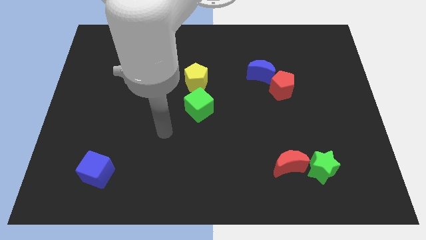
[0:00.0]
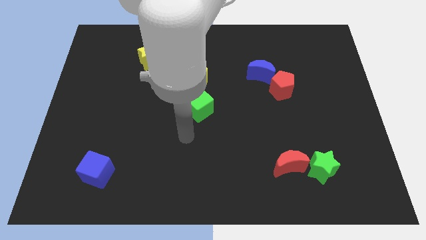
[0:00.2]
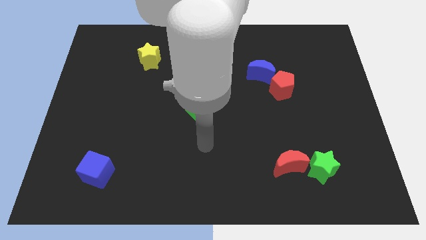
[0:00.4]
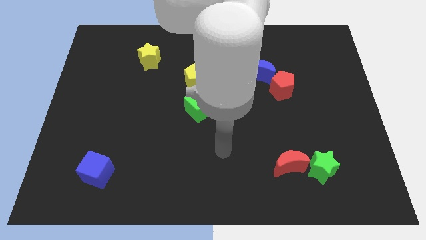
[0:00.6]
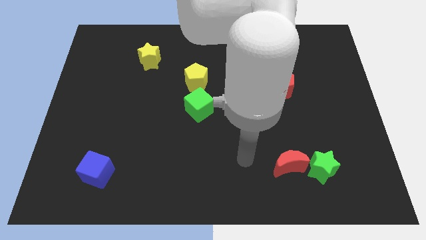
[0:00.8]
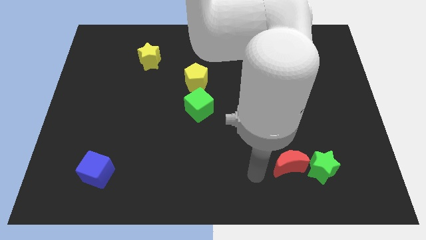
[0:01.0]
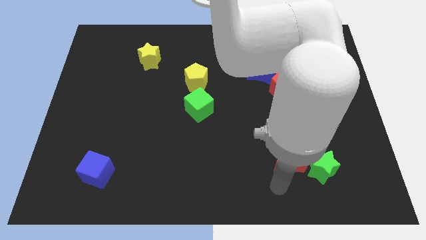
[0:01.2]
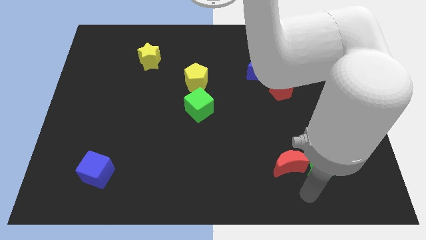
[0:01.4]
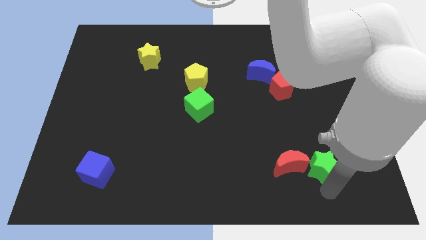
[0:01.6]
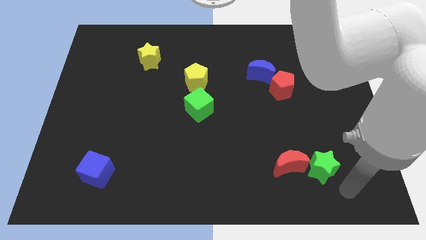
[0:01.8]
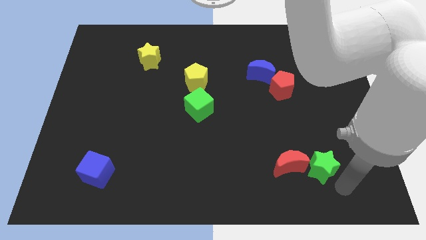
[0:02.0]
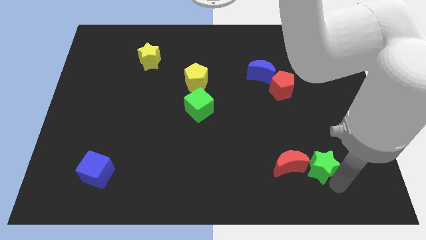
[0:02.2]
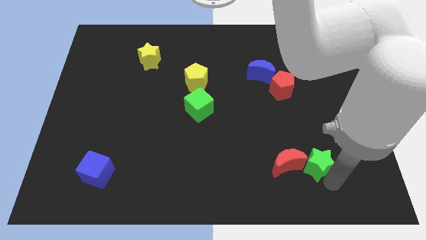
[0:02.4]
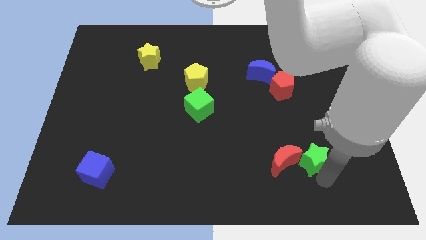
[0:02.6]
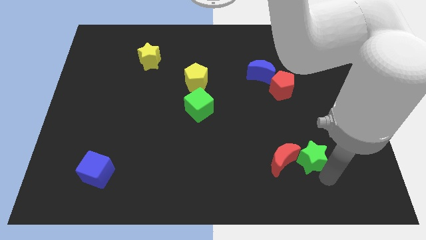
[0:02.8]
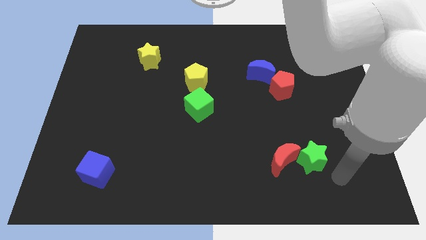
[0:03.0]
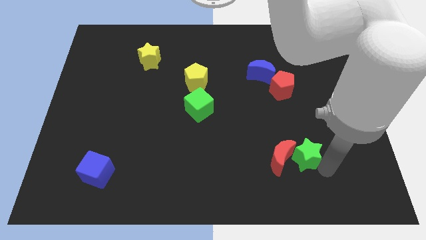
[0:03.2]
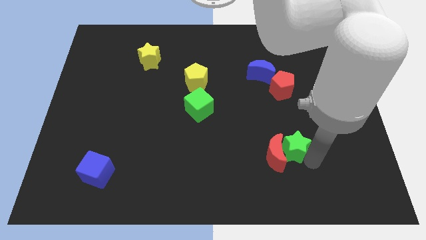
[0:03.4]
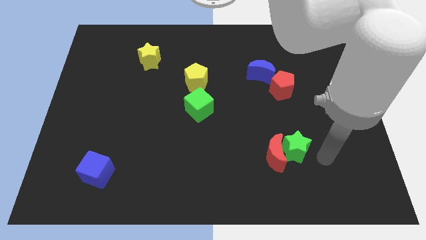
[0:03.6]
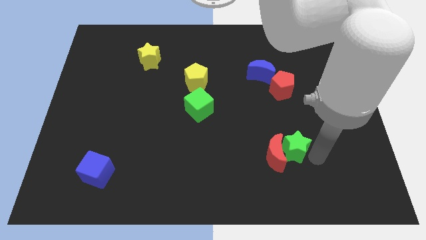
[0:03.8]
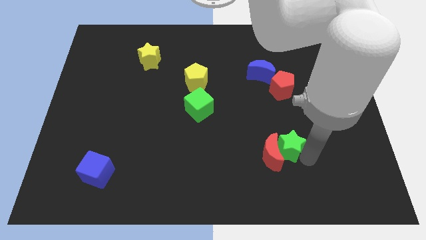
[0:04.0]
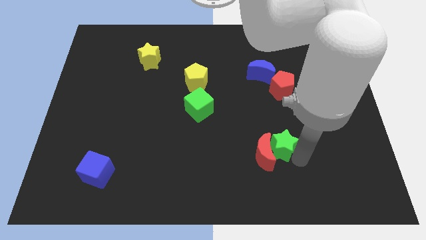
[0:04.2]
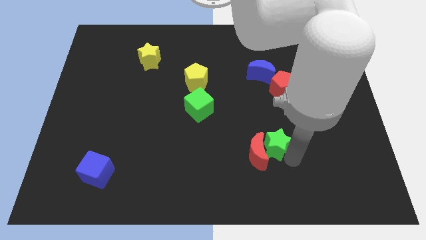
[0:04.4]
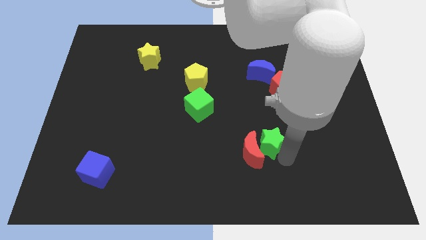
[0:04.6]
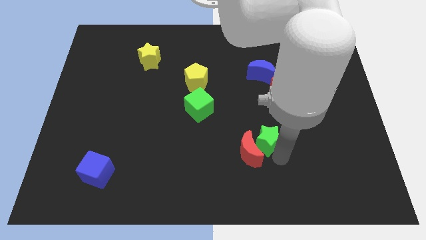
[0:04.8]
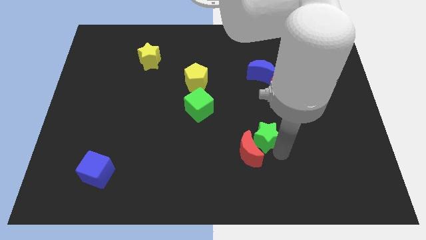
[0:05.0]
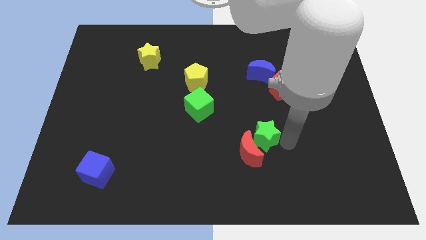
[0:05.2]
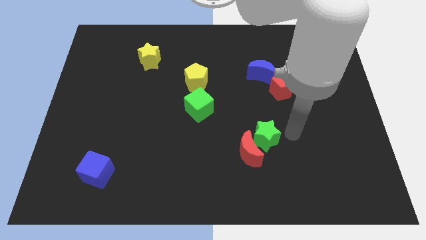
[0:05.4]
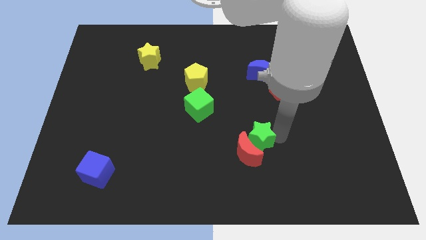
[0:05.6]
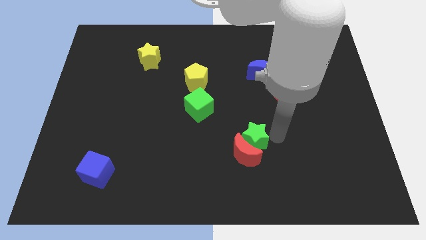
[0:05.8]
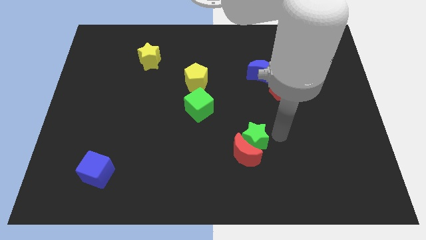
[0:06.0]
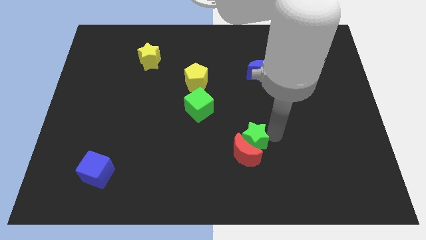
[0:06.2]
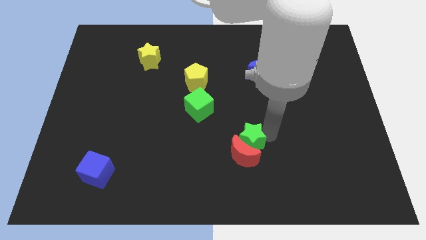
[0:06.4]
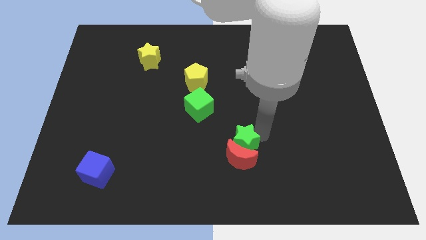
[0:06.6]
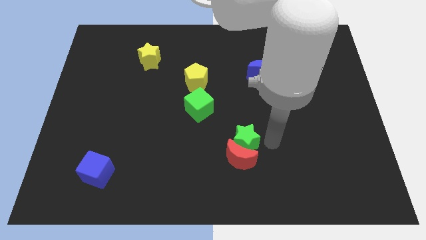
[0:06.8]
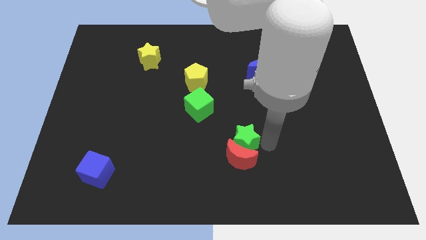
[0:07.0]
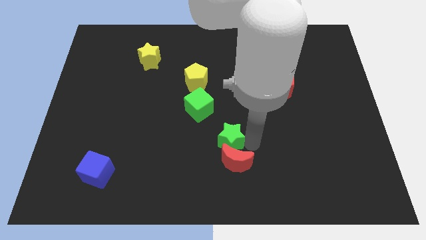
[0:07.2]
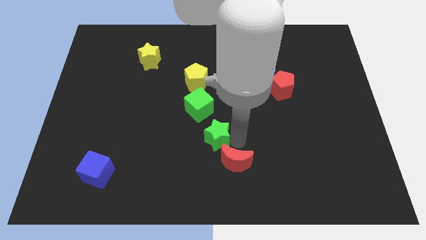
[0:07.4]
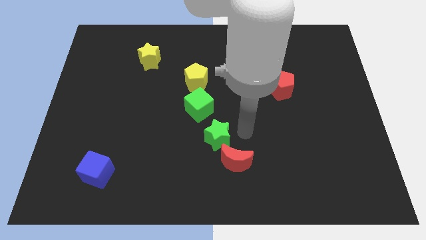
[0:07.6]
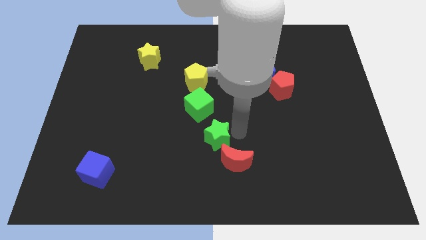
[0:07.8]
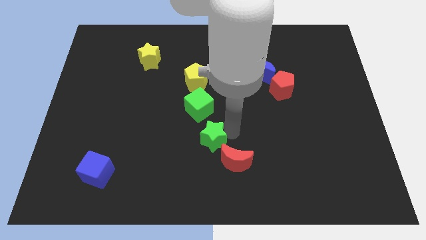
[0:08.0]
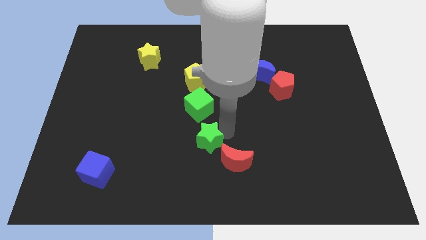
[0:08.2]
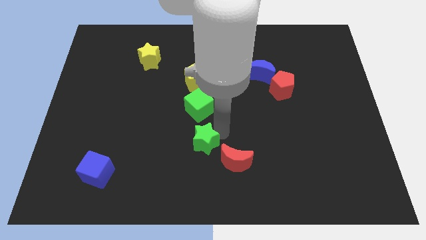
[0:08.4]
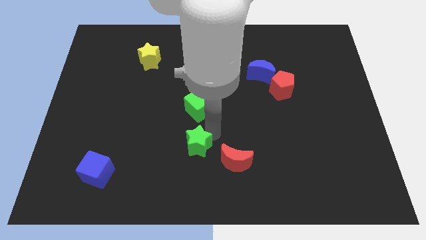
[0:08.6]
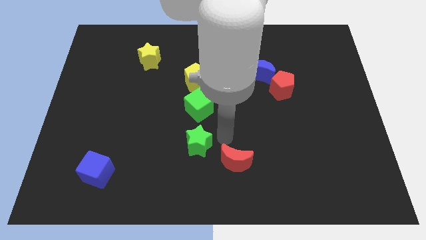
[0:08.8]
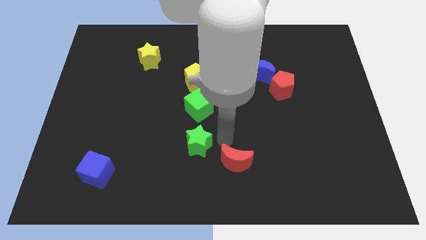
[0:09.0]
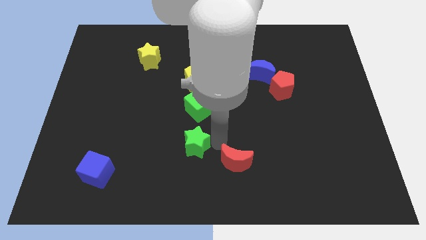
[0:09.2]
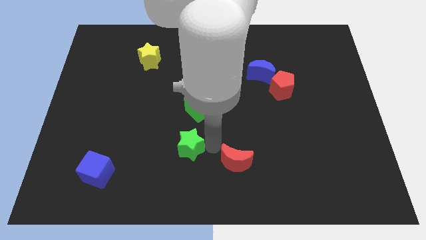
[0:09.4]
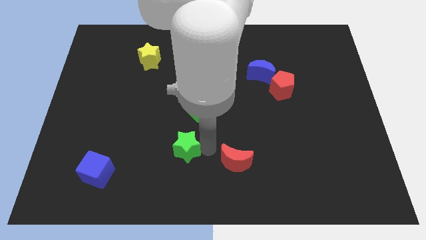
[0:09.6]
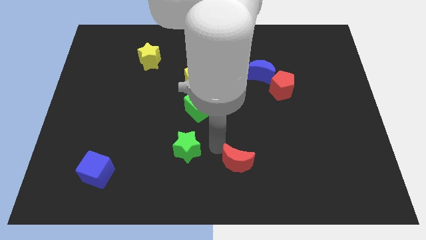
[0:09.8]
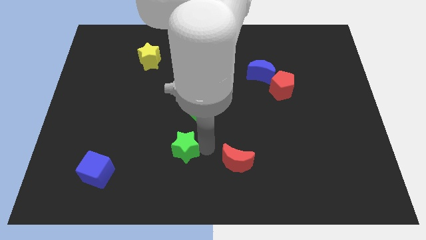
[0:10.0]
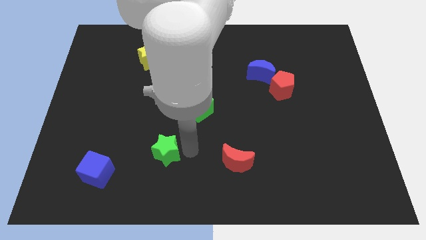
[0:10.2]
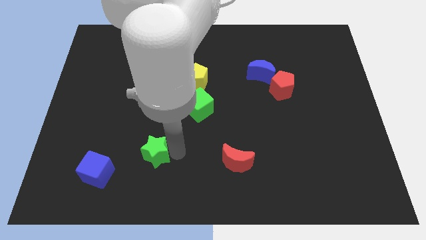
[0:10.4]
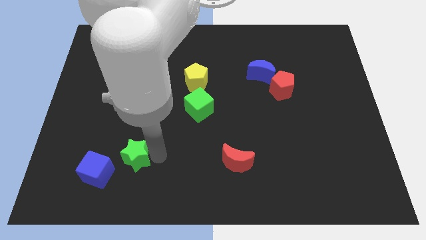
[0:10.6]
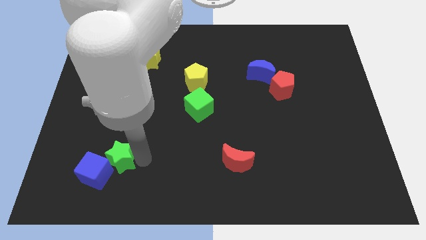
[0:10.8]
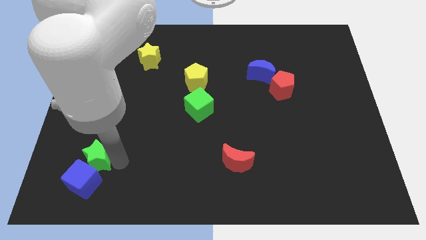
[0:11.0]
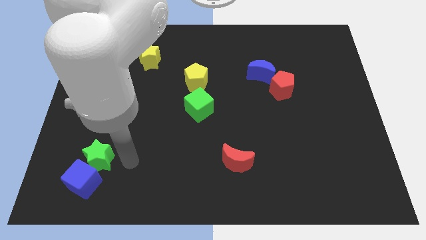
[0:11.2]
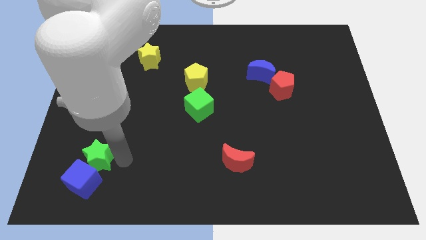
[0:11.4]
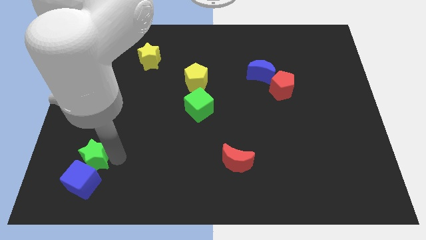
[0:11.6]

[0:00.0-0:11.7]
put the green star to the top left of the blue cube

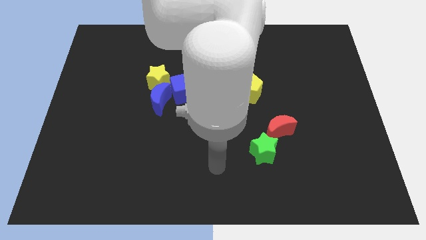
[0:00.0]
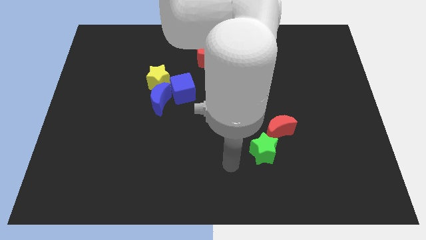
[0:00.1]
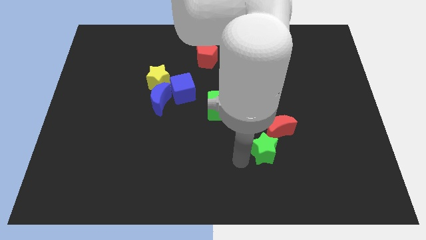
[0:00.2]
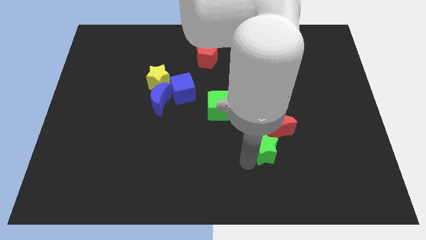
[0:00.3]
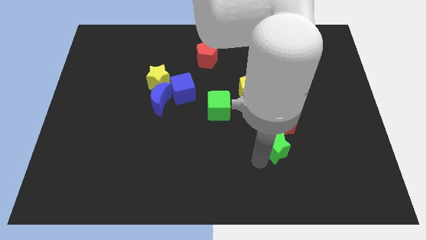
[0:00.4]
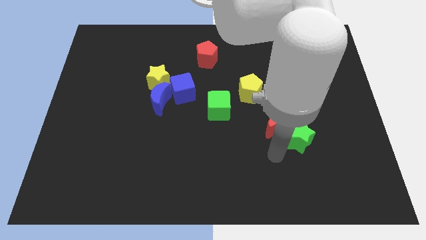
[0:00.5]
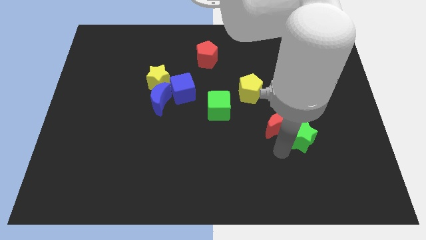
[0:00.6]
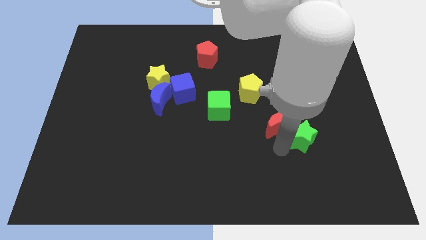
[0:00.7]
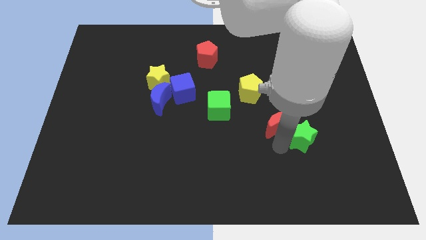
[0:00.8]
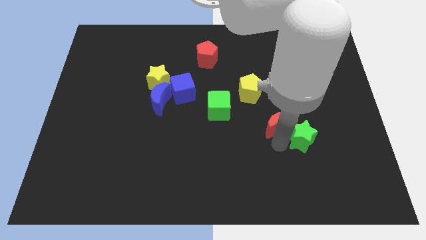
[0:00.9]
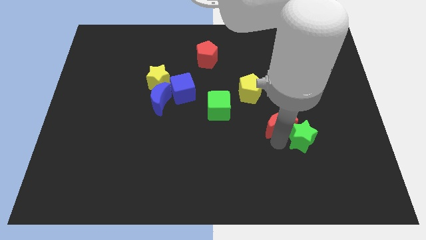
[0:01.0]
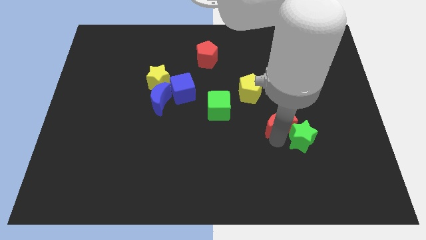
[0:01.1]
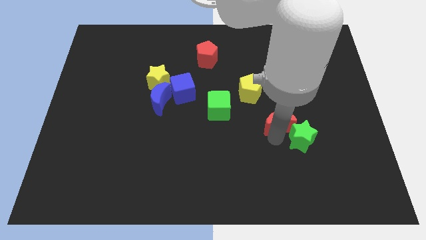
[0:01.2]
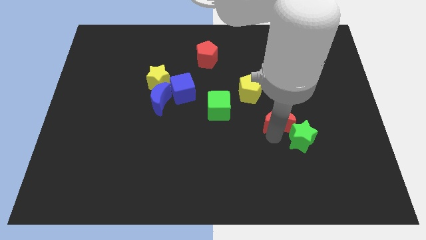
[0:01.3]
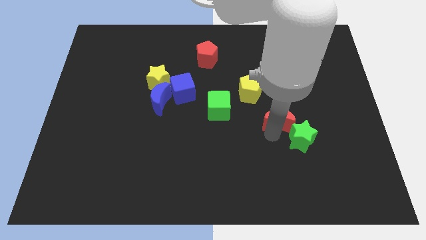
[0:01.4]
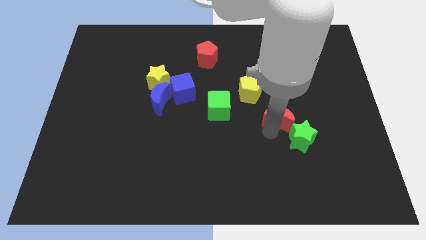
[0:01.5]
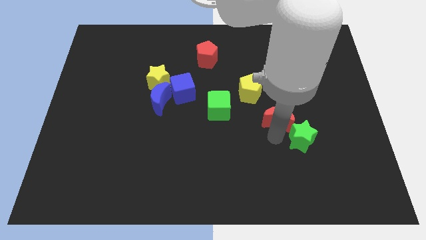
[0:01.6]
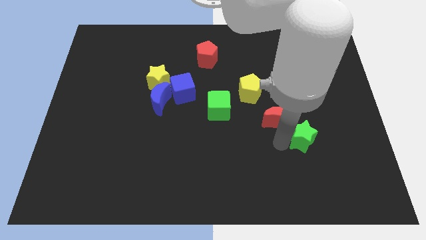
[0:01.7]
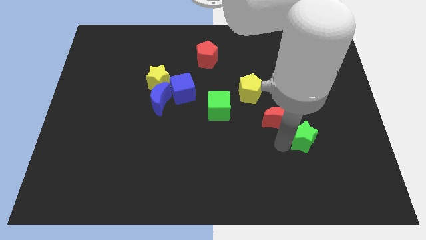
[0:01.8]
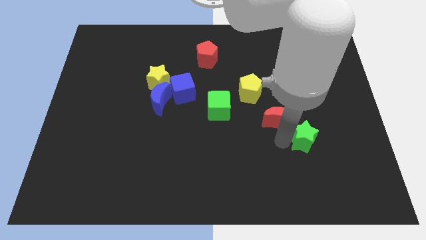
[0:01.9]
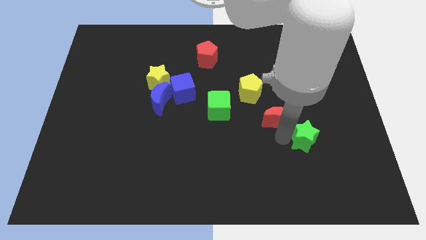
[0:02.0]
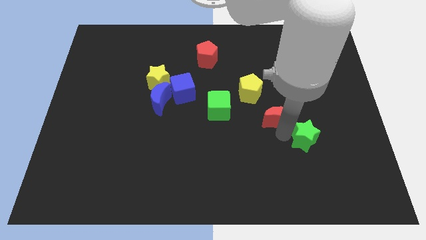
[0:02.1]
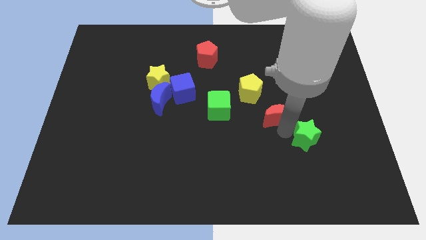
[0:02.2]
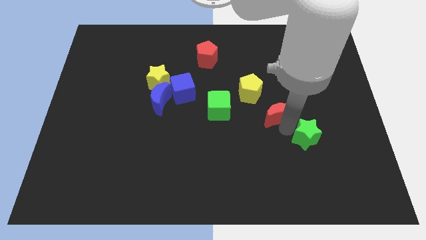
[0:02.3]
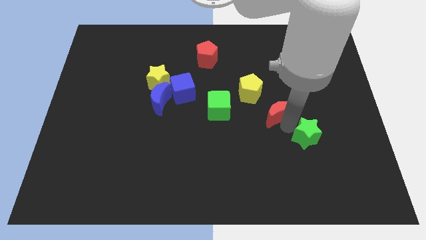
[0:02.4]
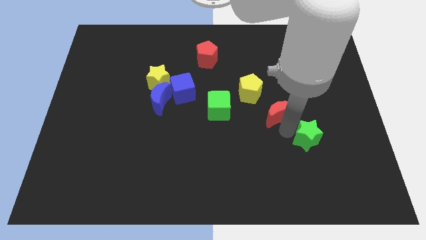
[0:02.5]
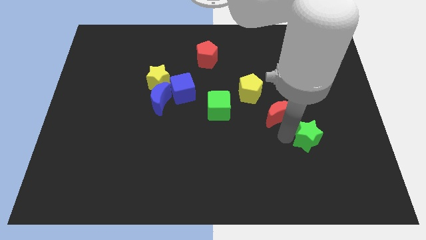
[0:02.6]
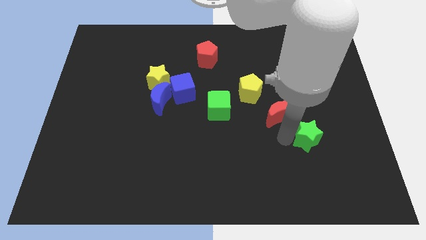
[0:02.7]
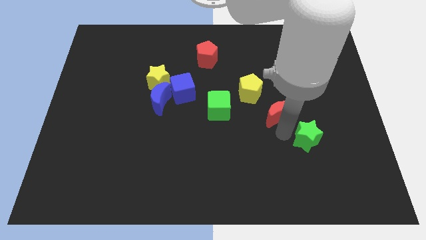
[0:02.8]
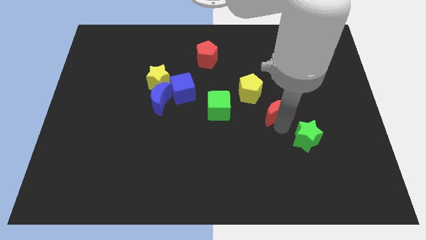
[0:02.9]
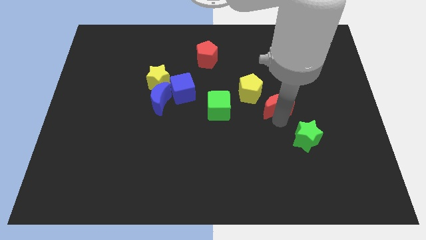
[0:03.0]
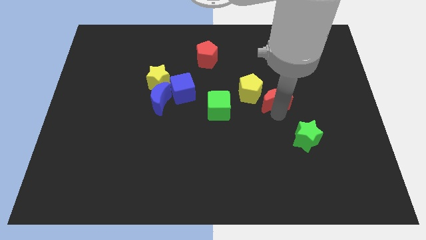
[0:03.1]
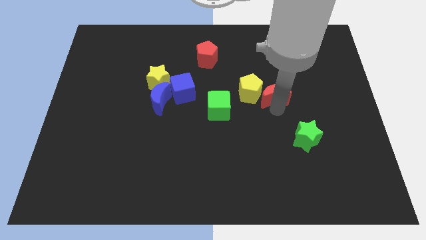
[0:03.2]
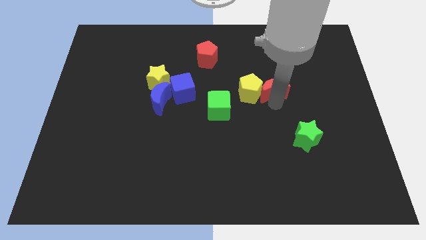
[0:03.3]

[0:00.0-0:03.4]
push the red moon to the top right side of the yellow pentagon
